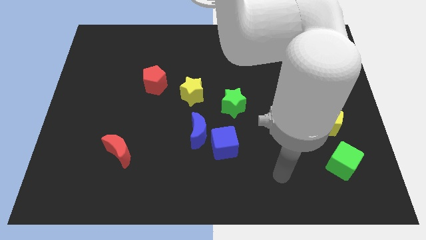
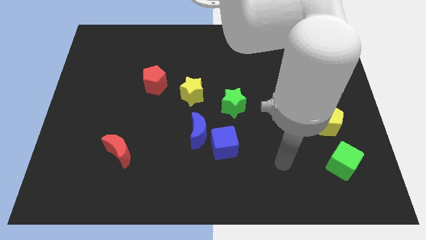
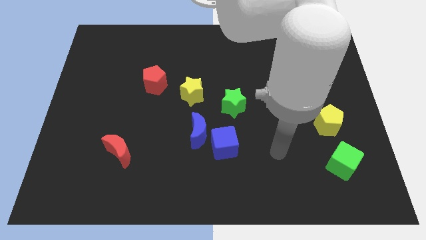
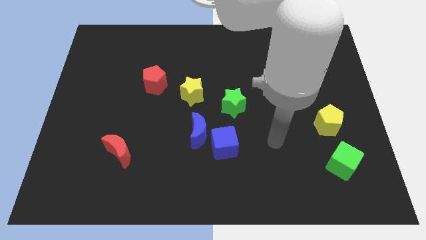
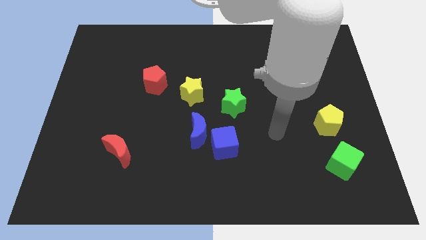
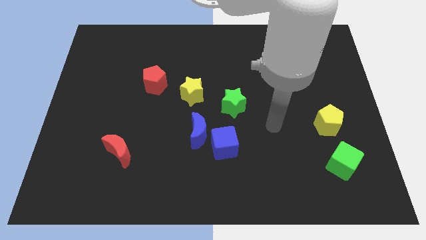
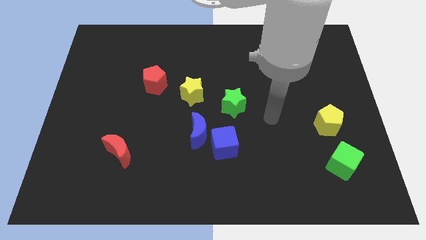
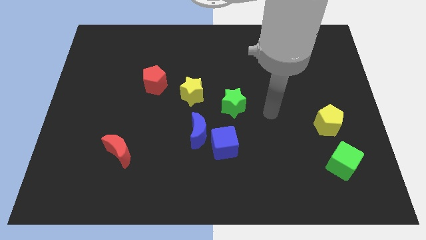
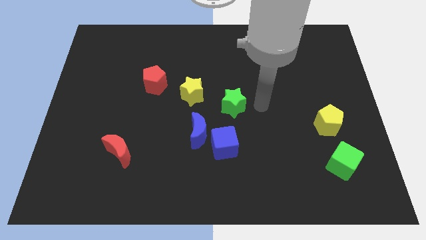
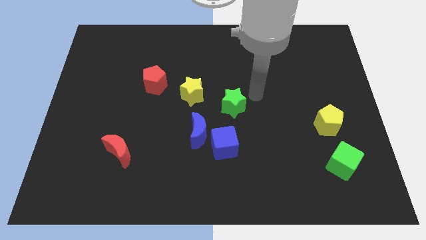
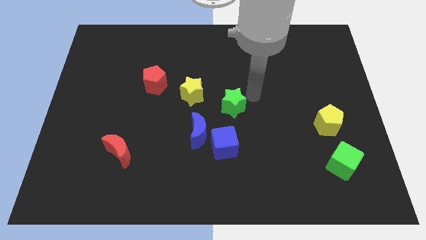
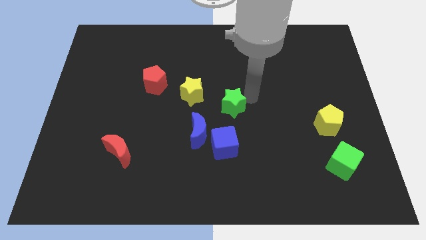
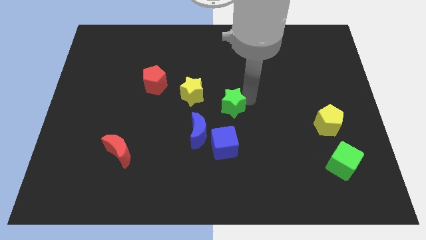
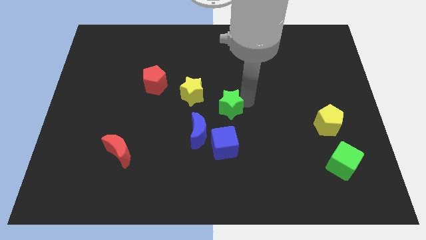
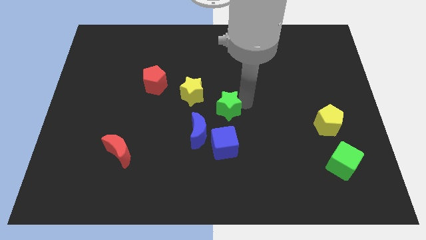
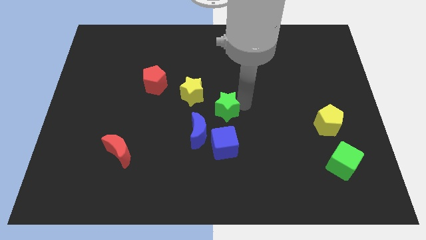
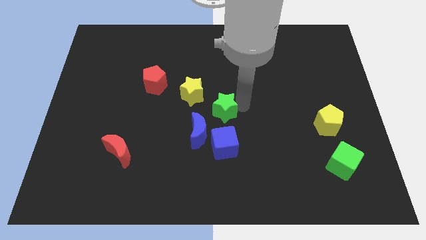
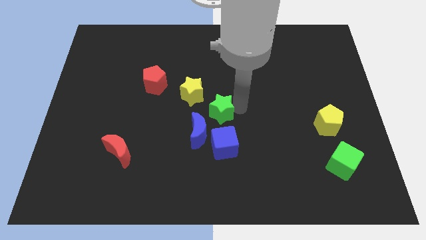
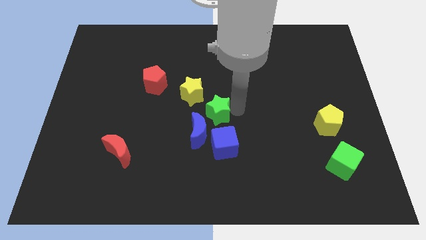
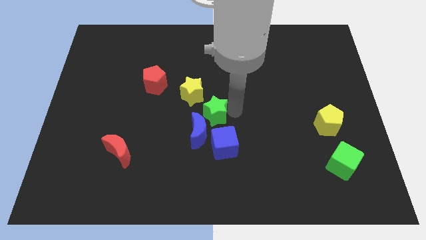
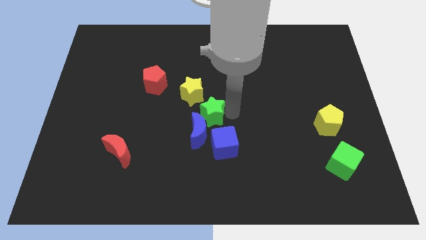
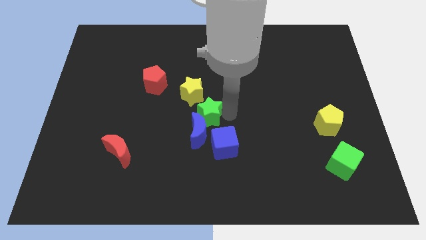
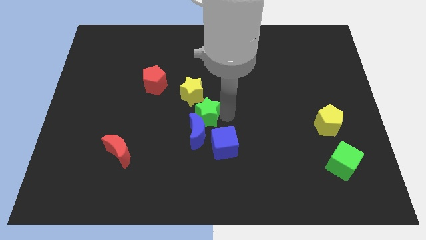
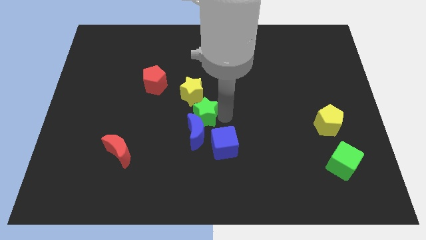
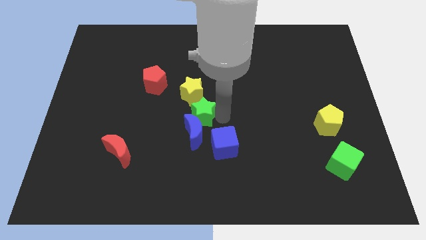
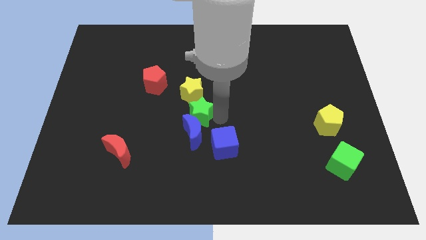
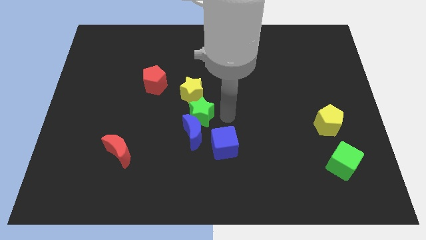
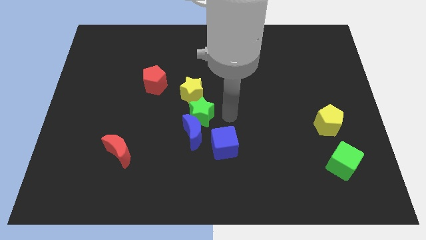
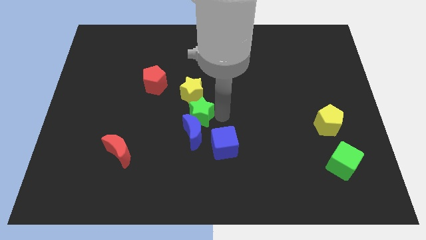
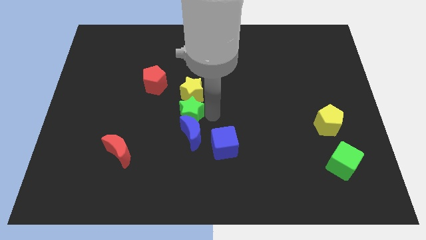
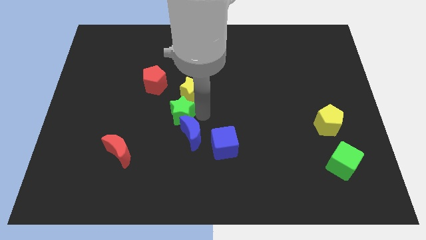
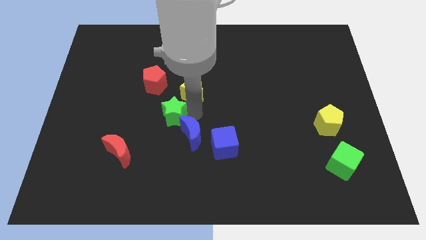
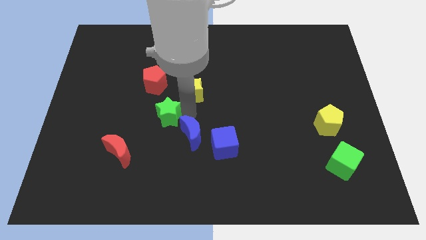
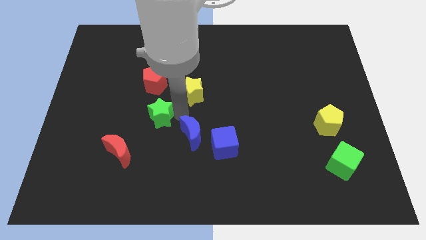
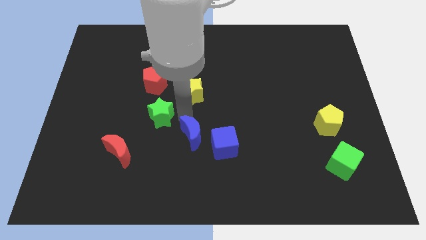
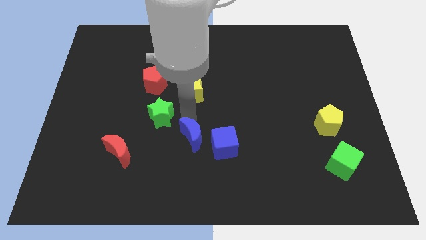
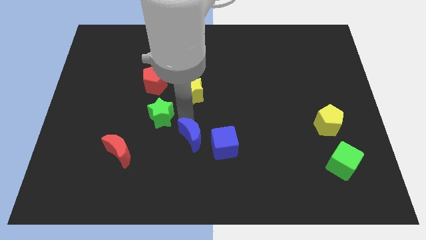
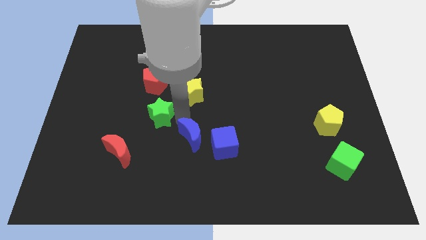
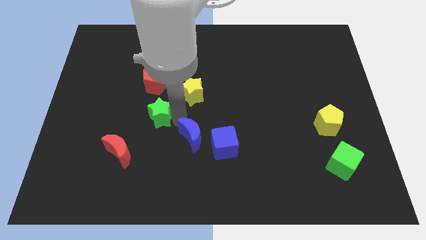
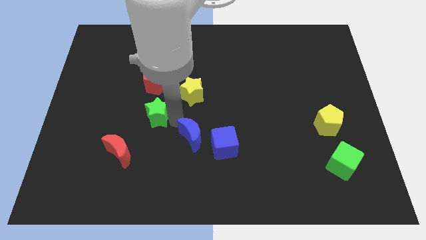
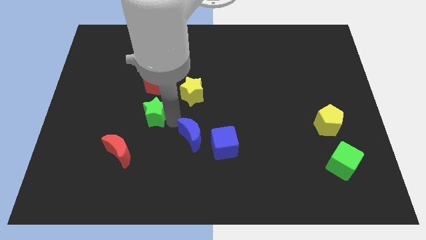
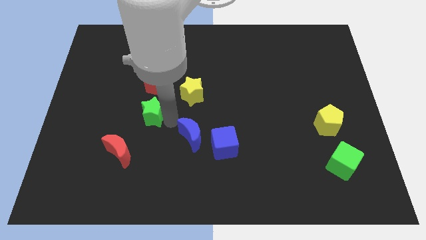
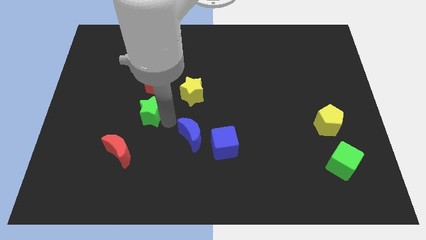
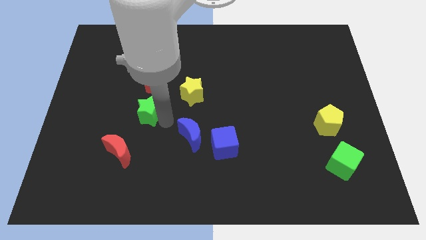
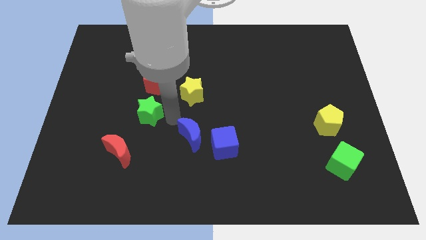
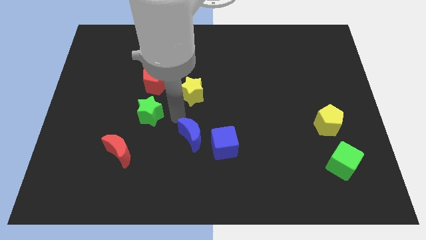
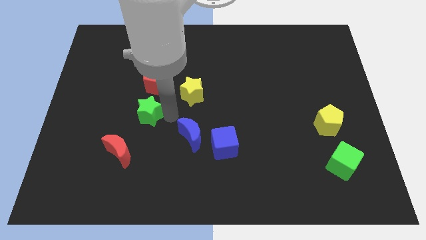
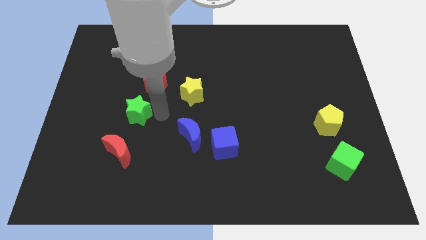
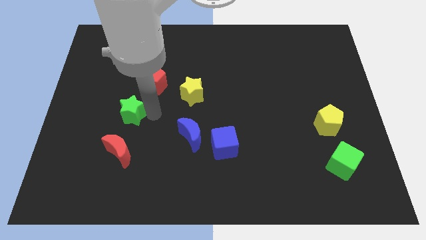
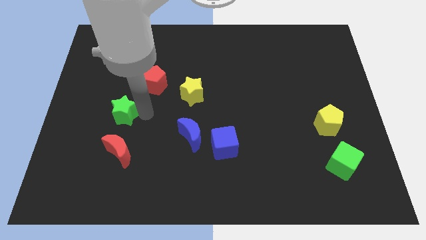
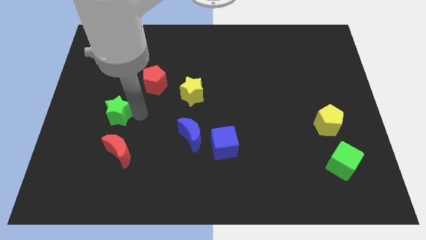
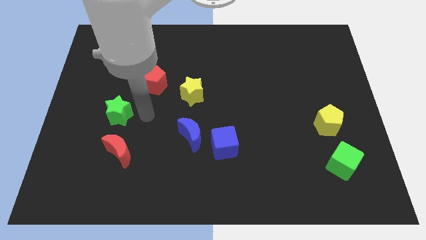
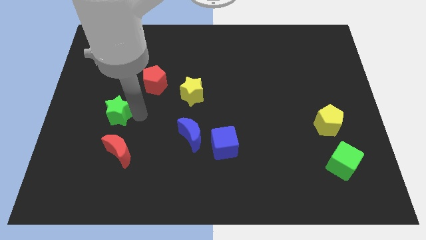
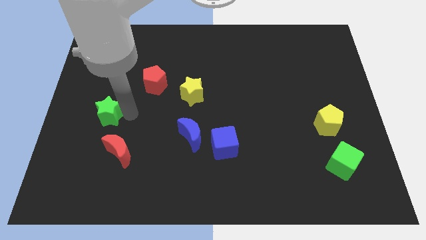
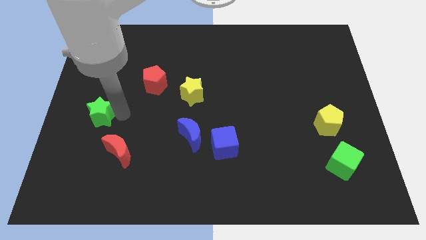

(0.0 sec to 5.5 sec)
move the green star to the center left

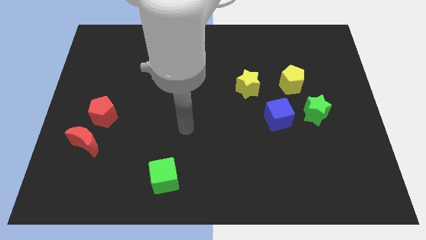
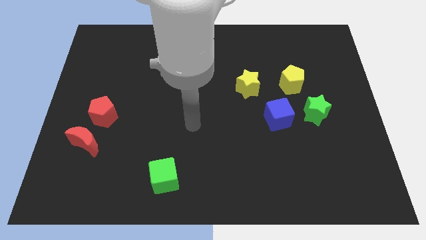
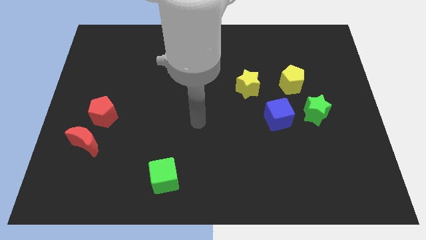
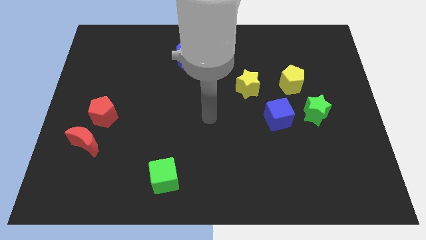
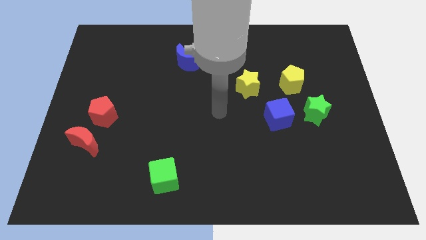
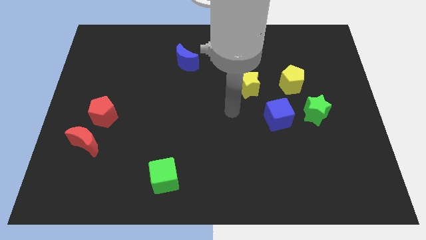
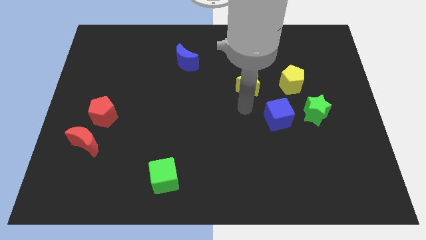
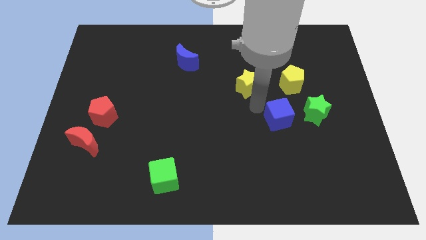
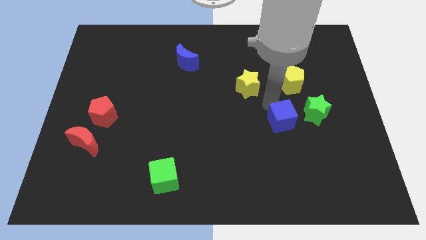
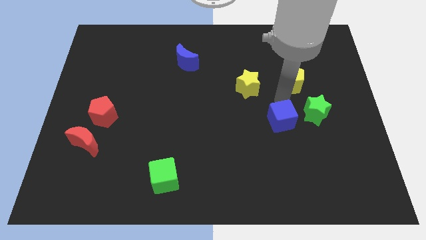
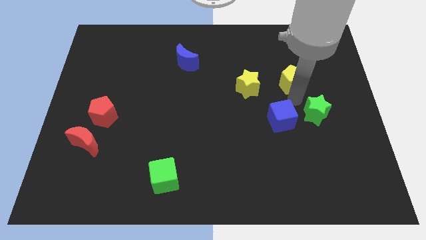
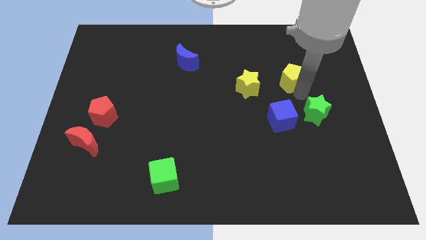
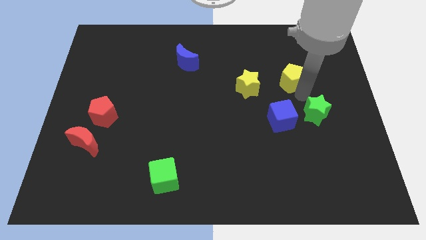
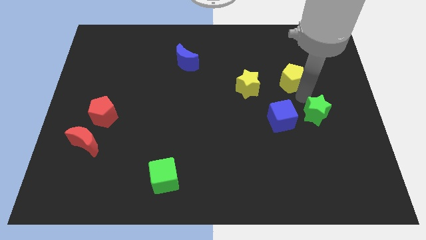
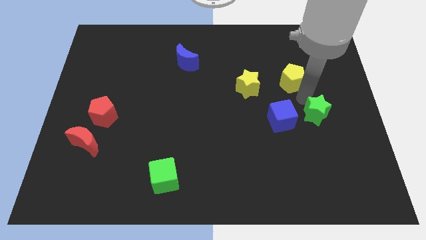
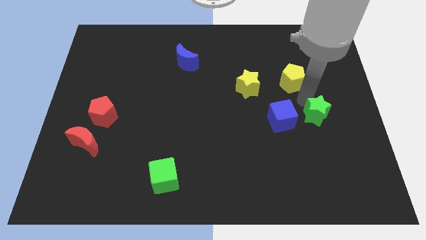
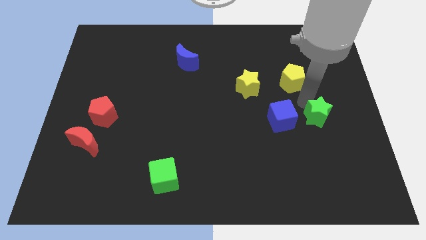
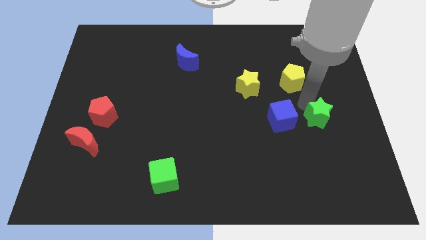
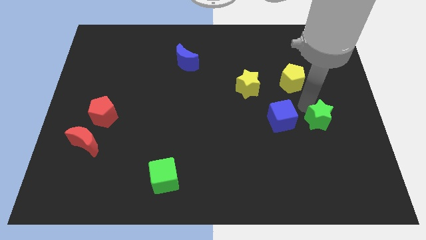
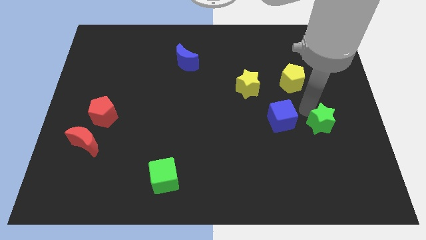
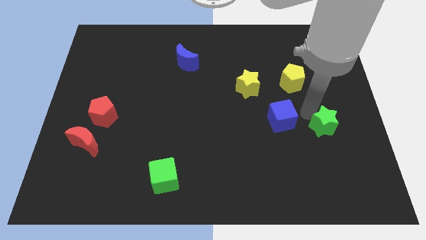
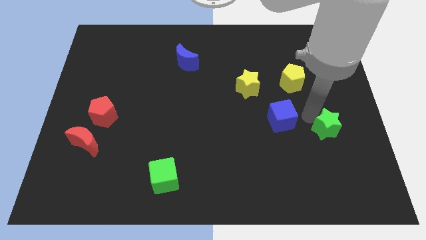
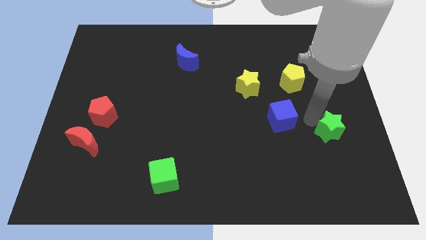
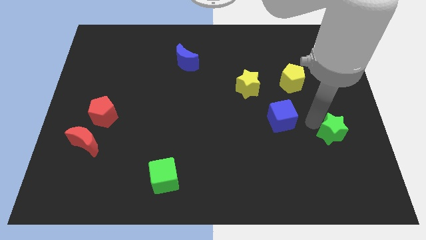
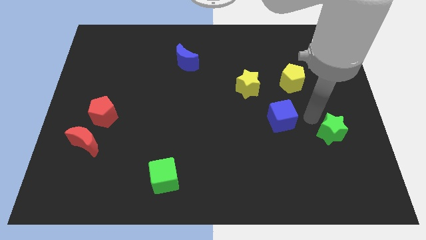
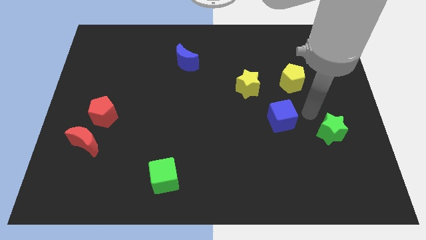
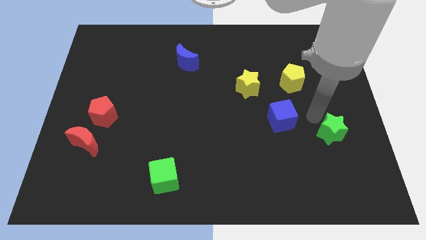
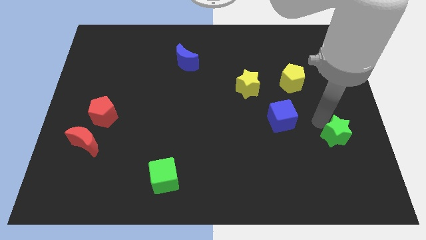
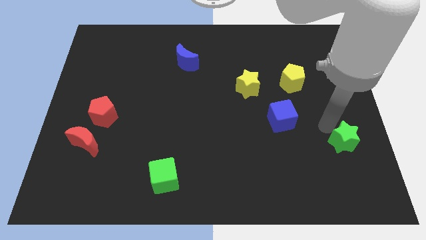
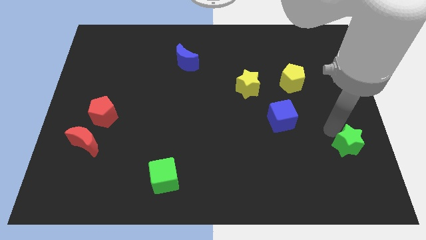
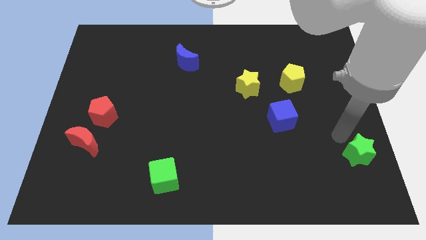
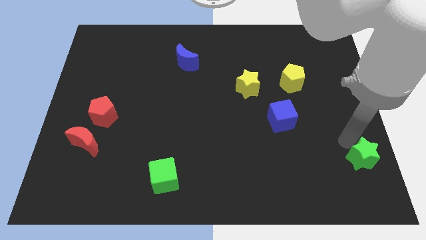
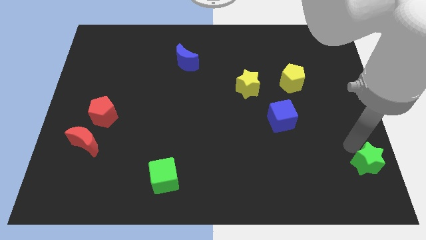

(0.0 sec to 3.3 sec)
move the green star to the bottom right corner
